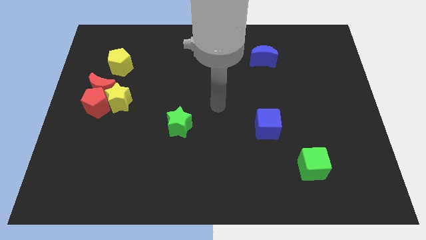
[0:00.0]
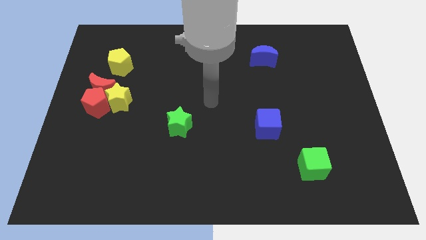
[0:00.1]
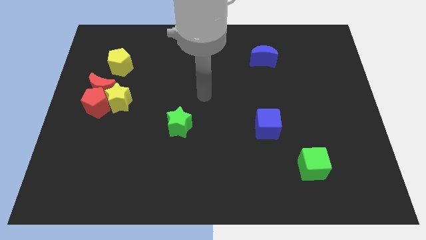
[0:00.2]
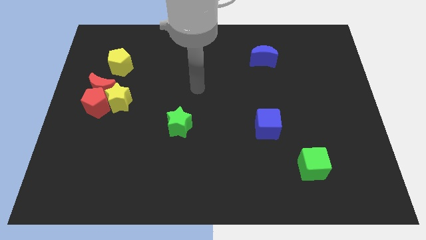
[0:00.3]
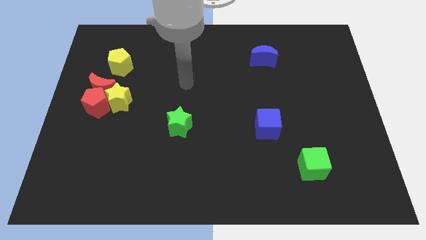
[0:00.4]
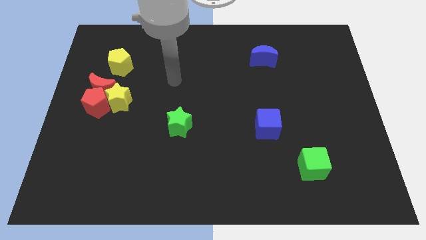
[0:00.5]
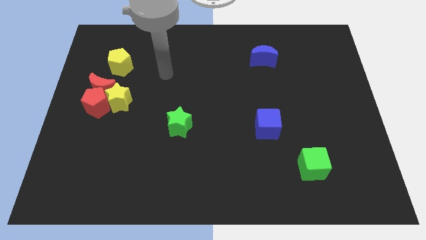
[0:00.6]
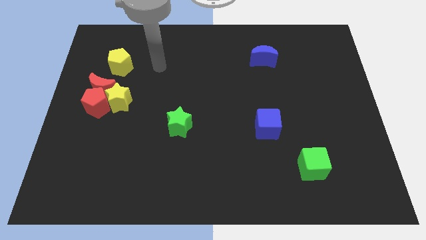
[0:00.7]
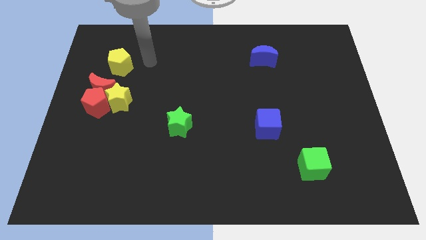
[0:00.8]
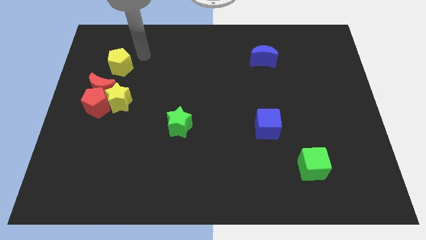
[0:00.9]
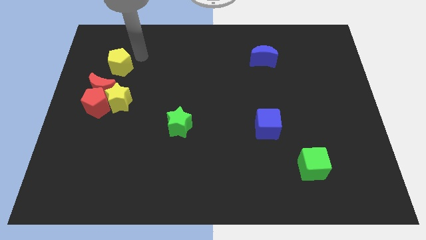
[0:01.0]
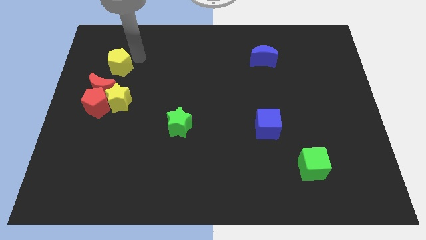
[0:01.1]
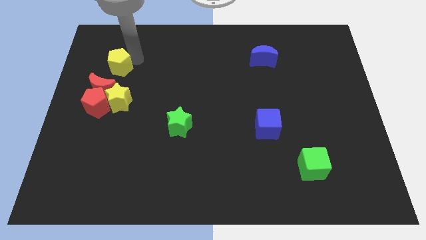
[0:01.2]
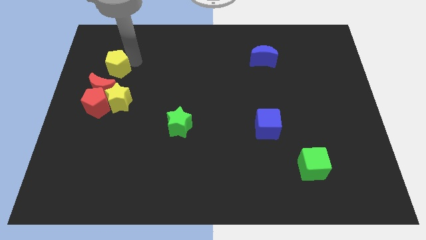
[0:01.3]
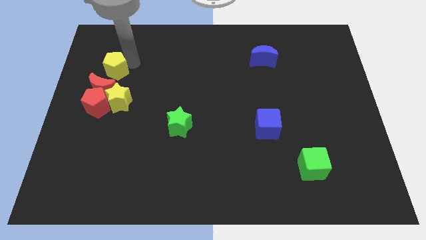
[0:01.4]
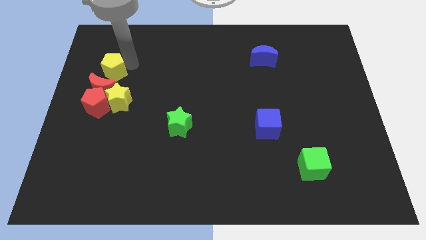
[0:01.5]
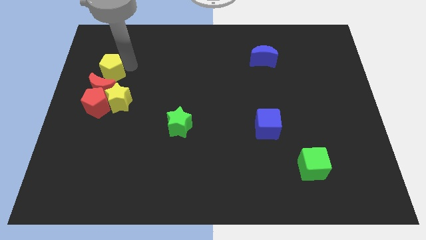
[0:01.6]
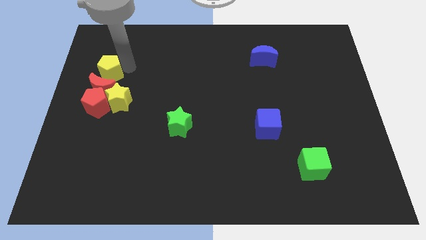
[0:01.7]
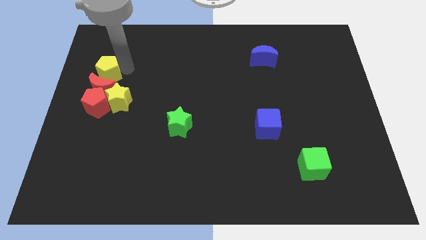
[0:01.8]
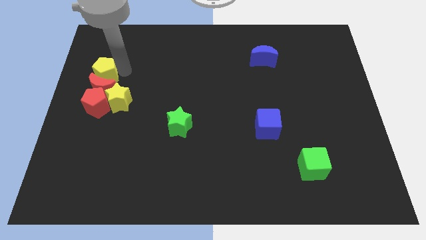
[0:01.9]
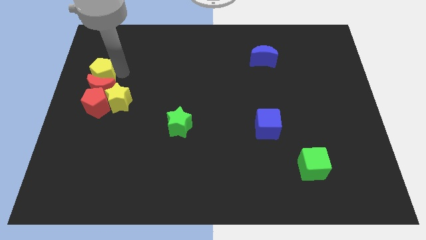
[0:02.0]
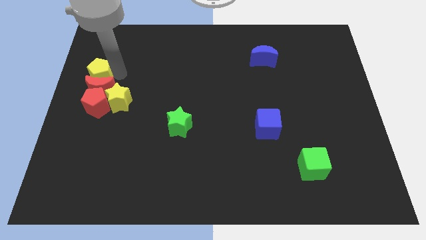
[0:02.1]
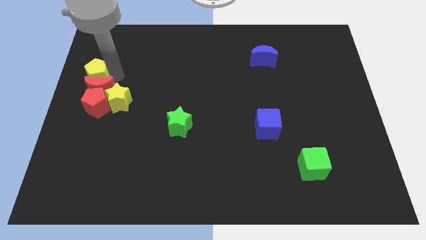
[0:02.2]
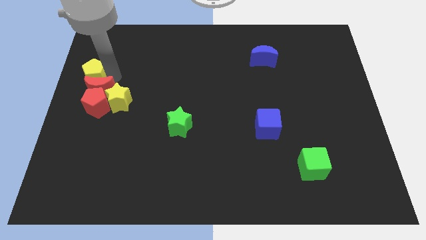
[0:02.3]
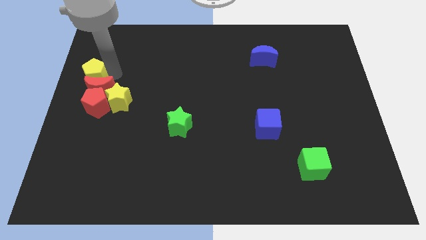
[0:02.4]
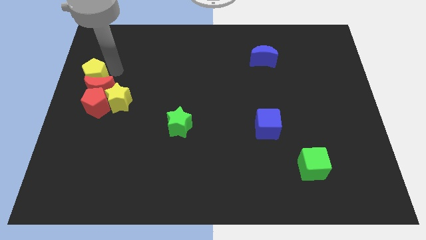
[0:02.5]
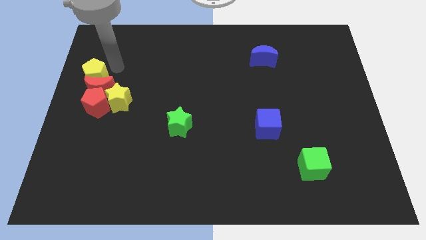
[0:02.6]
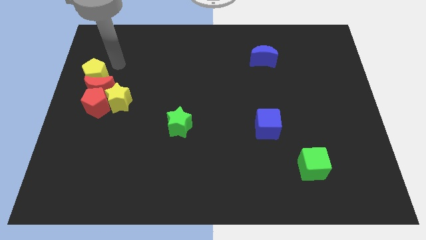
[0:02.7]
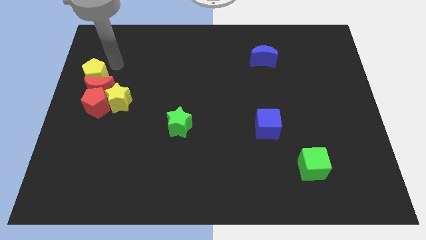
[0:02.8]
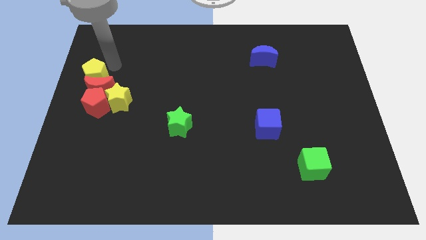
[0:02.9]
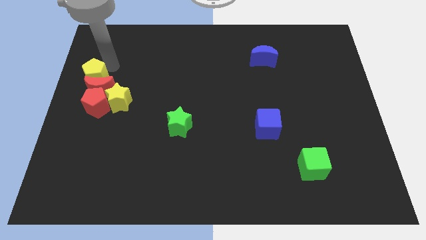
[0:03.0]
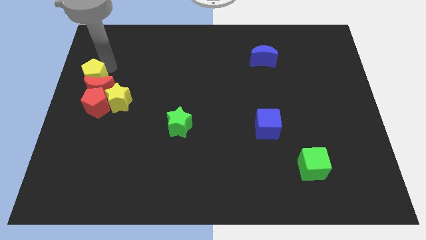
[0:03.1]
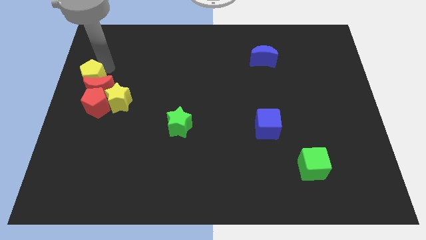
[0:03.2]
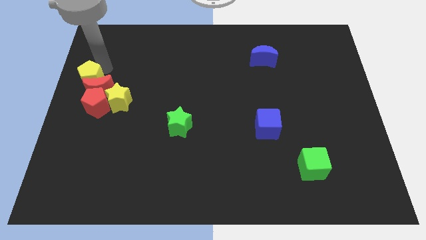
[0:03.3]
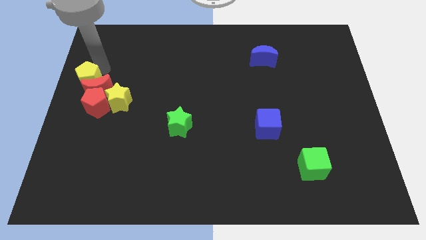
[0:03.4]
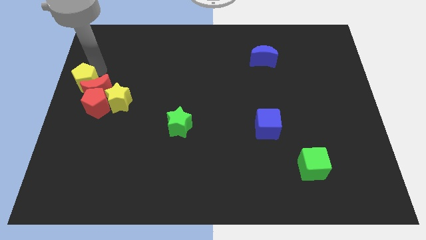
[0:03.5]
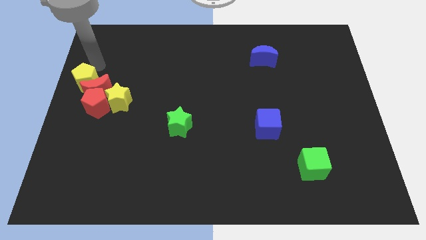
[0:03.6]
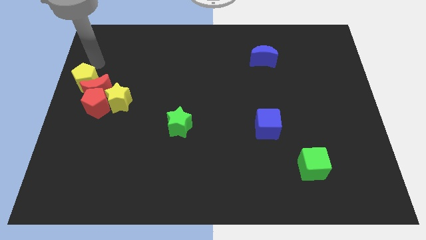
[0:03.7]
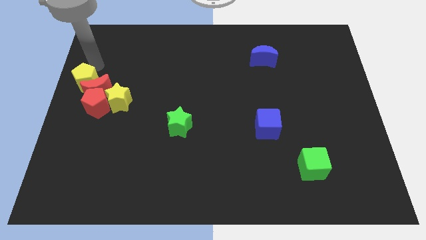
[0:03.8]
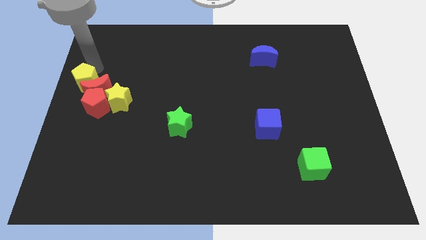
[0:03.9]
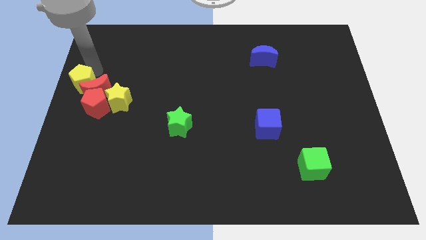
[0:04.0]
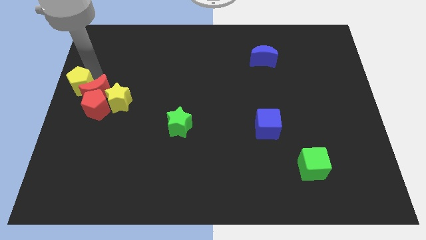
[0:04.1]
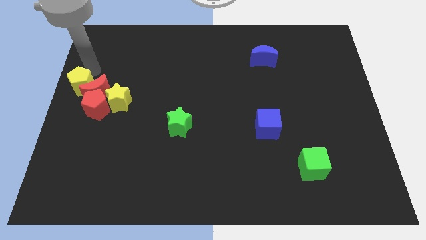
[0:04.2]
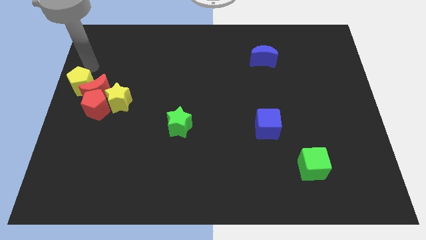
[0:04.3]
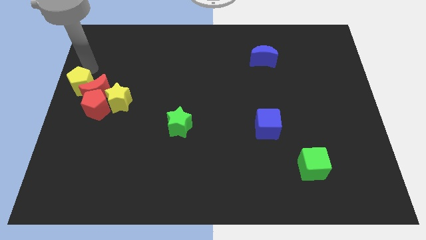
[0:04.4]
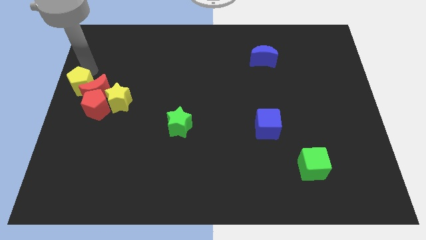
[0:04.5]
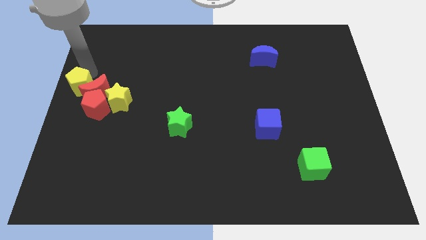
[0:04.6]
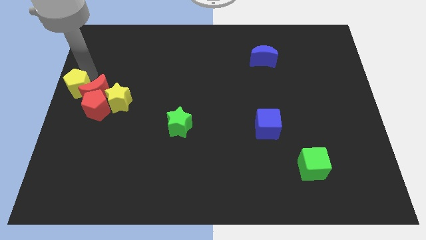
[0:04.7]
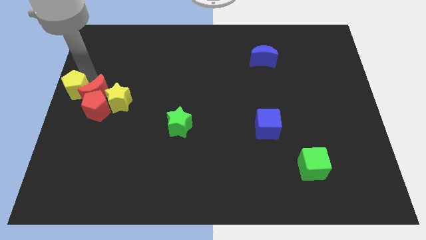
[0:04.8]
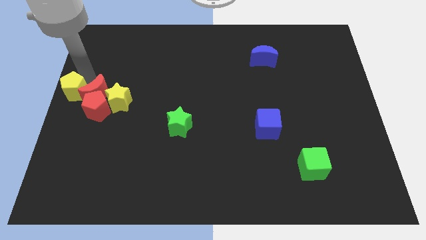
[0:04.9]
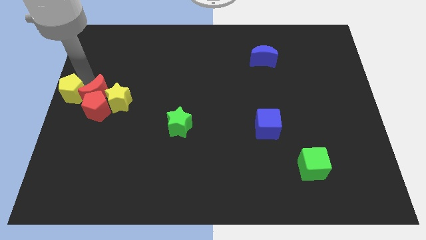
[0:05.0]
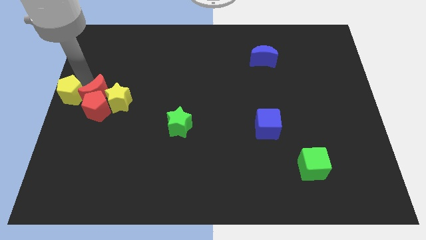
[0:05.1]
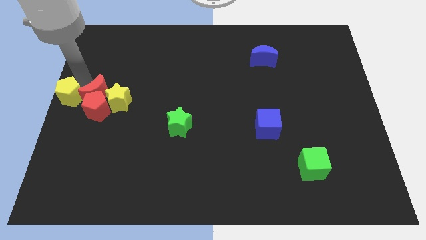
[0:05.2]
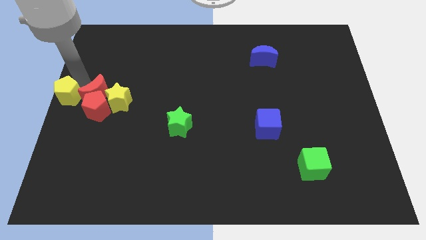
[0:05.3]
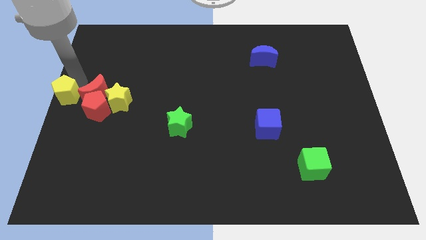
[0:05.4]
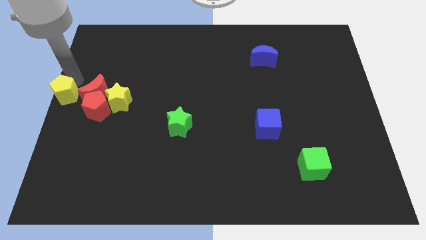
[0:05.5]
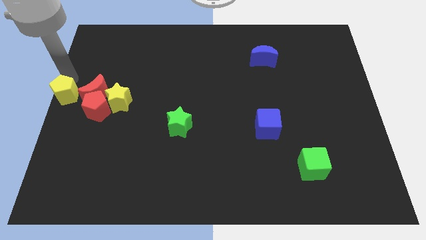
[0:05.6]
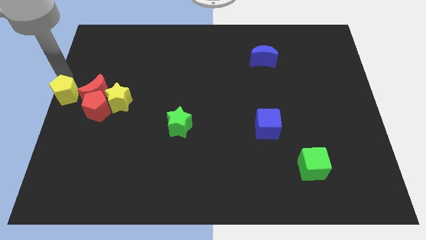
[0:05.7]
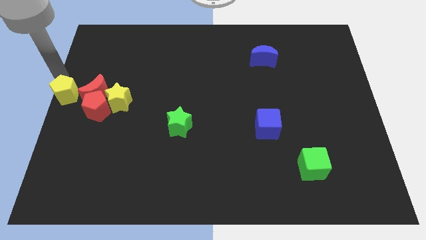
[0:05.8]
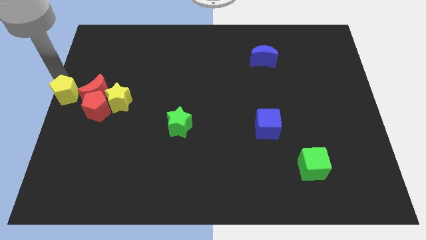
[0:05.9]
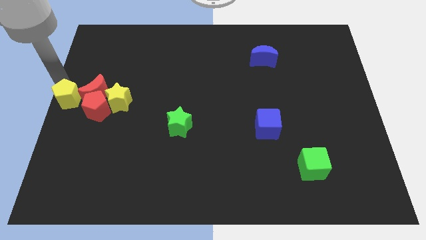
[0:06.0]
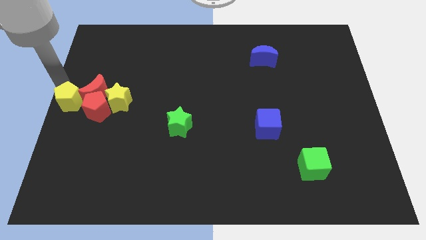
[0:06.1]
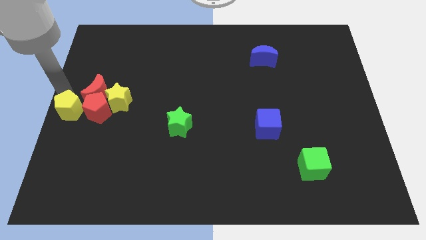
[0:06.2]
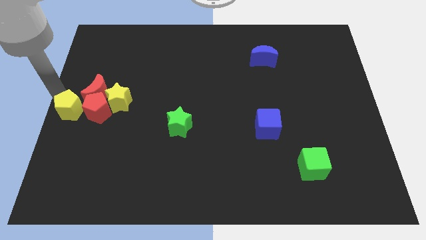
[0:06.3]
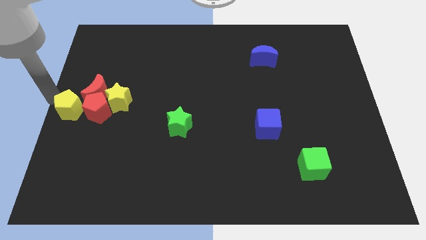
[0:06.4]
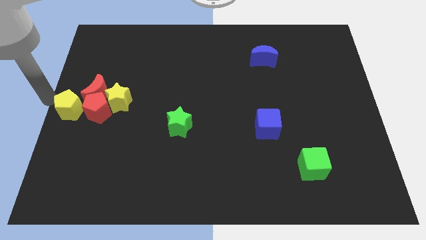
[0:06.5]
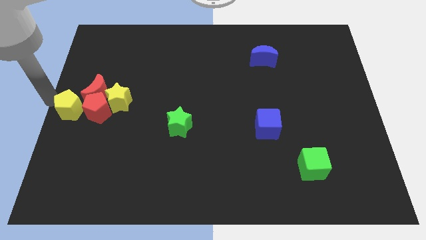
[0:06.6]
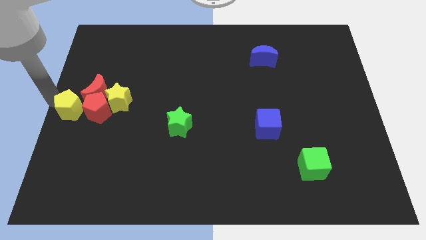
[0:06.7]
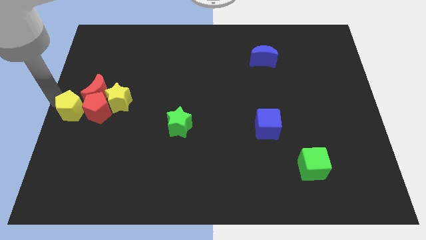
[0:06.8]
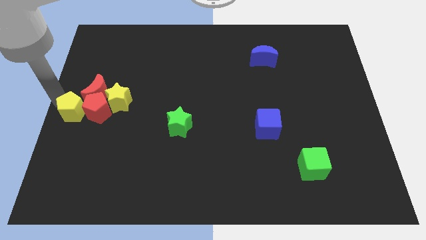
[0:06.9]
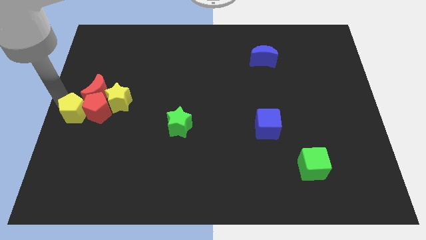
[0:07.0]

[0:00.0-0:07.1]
slide the yellow pentagon to the bottom left side of the yellow star
